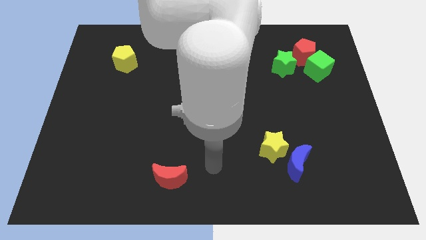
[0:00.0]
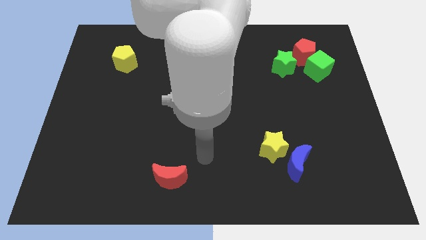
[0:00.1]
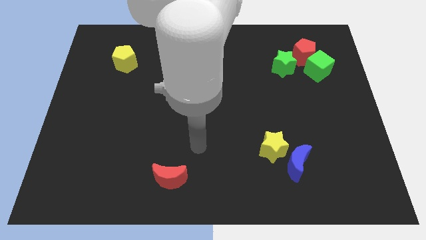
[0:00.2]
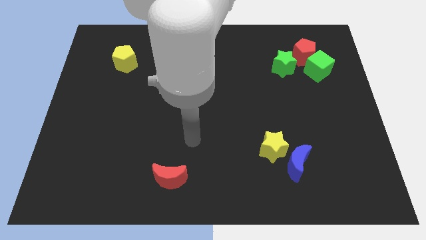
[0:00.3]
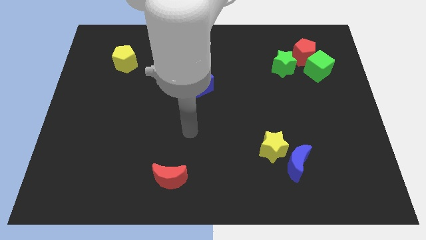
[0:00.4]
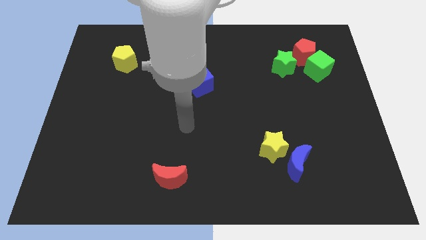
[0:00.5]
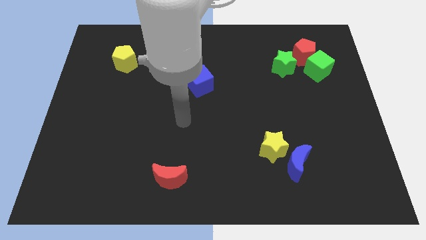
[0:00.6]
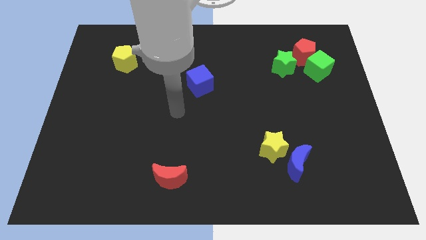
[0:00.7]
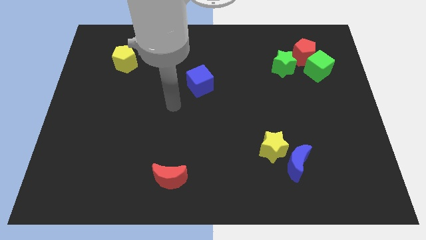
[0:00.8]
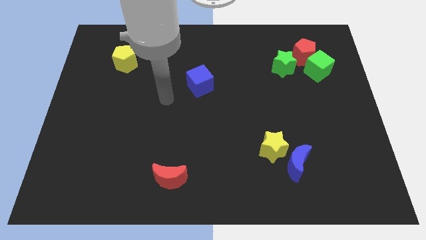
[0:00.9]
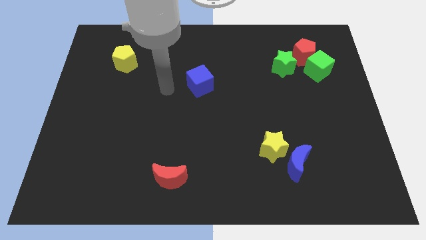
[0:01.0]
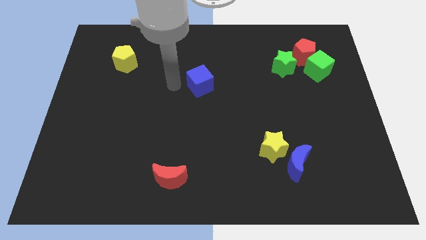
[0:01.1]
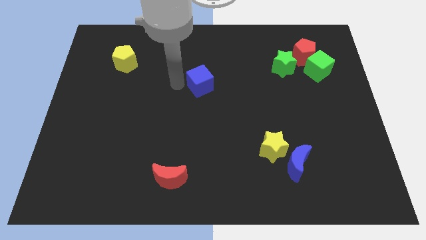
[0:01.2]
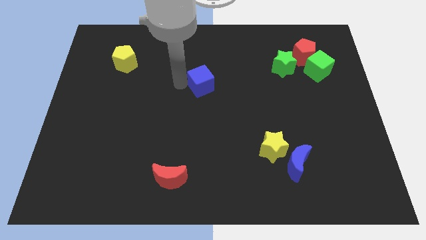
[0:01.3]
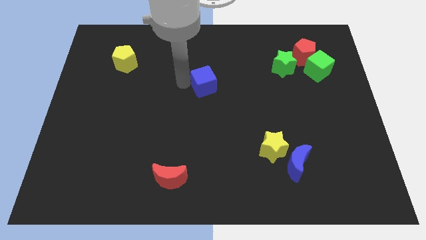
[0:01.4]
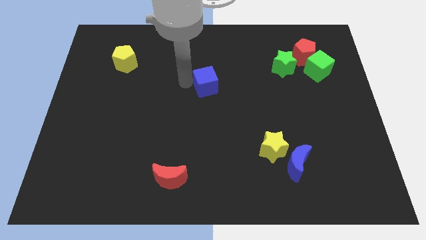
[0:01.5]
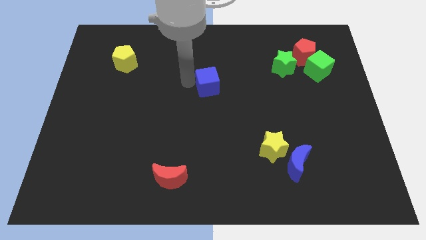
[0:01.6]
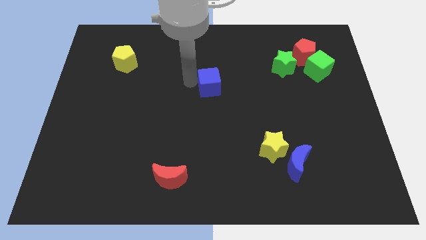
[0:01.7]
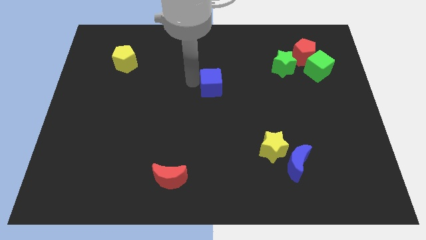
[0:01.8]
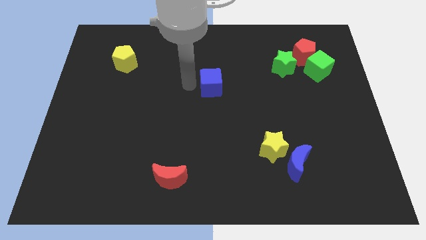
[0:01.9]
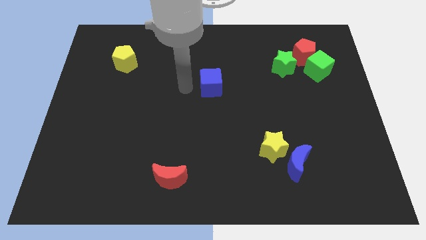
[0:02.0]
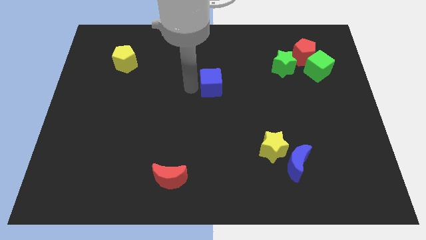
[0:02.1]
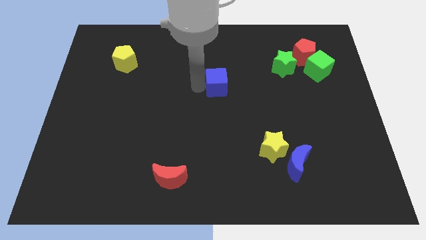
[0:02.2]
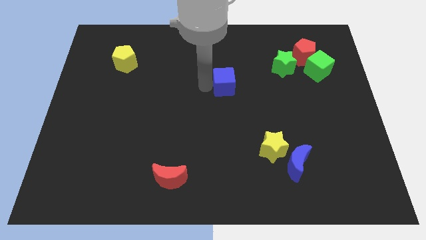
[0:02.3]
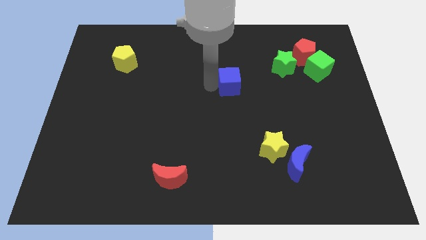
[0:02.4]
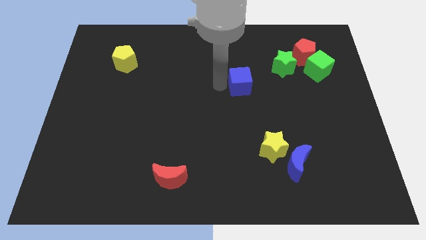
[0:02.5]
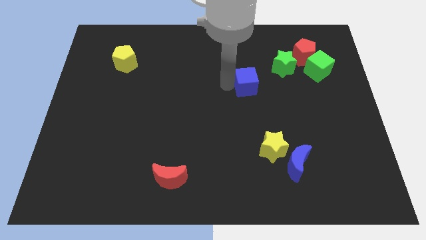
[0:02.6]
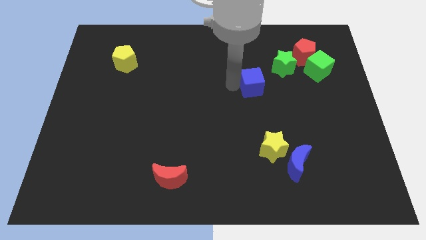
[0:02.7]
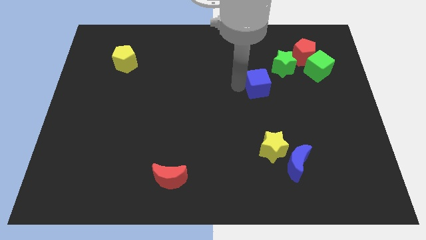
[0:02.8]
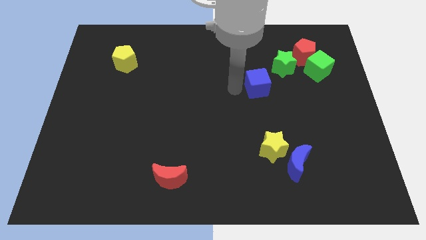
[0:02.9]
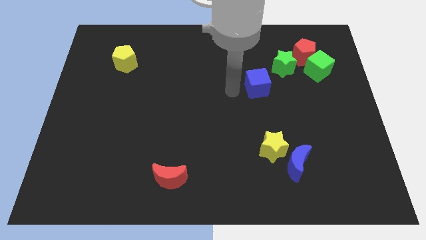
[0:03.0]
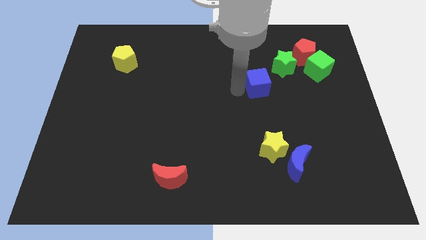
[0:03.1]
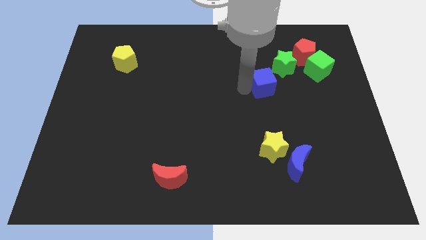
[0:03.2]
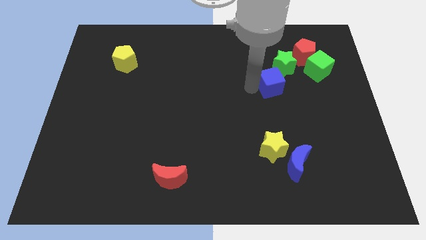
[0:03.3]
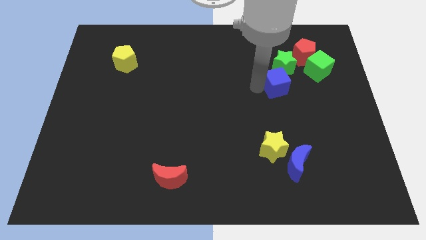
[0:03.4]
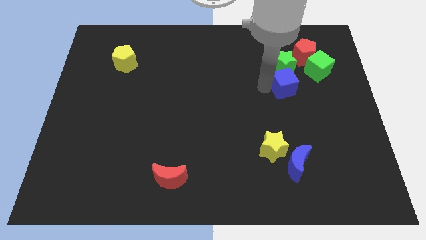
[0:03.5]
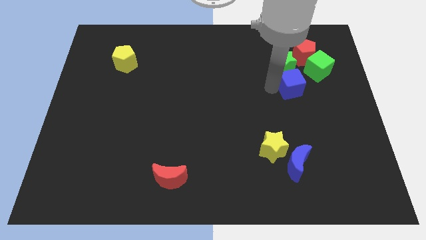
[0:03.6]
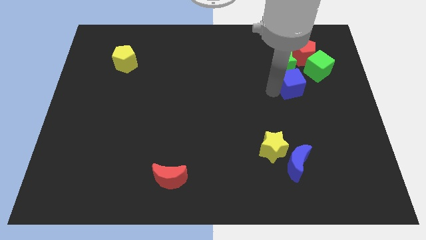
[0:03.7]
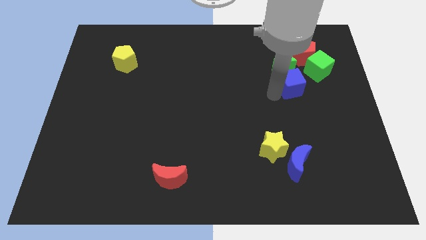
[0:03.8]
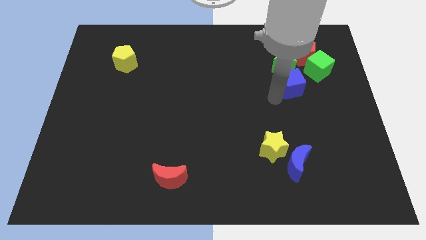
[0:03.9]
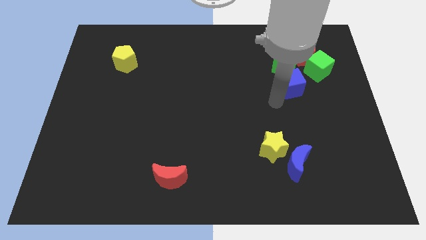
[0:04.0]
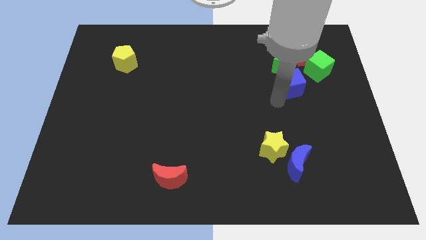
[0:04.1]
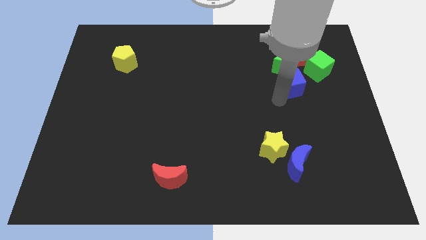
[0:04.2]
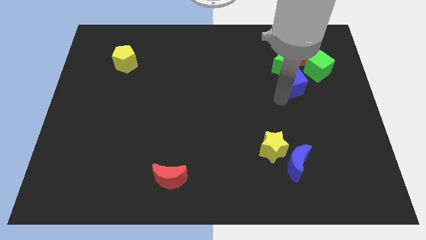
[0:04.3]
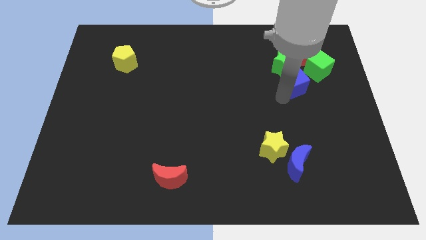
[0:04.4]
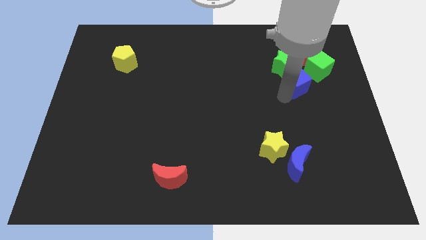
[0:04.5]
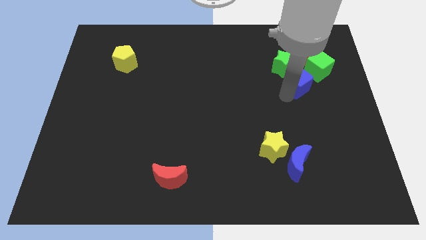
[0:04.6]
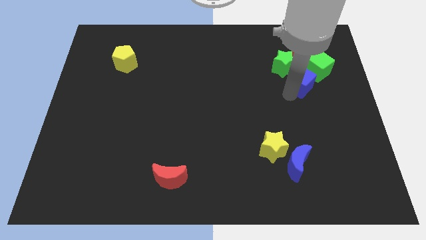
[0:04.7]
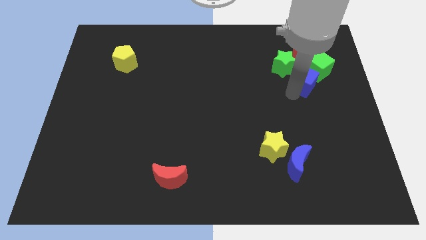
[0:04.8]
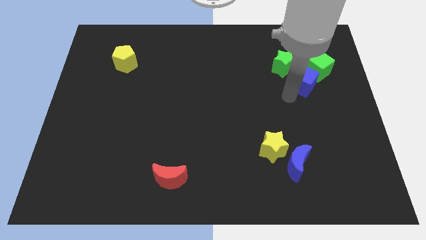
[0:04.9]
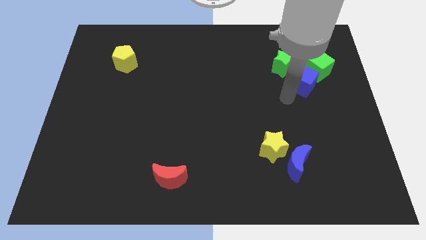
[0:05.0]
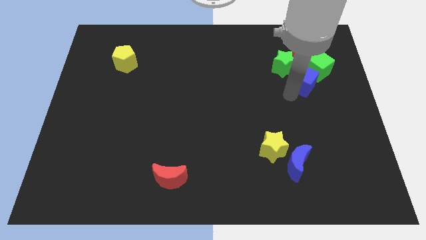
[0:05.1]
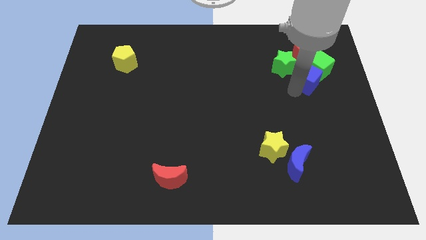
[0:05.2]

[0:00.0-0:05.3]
put the blue cube next to the green cube

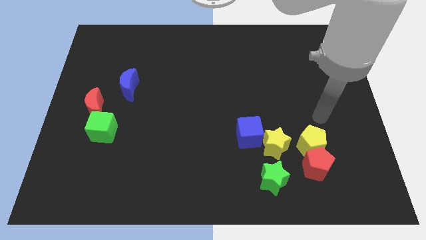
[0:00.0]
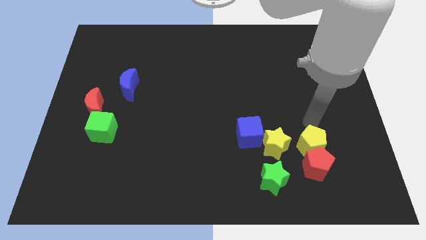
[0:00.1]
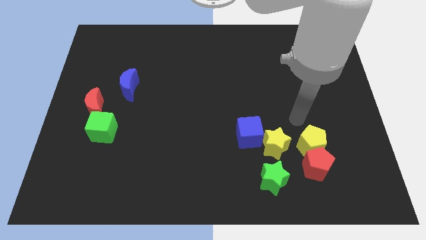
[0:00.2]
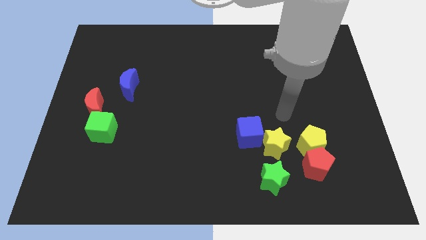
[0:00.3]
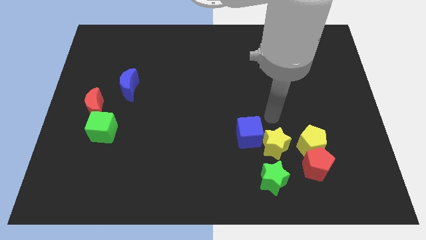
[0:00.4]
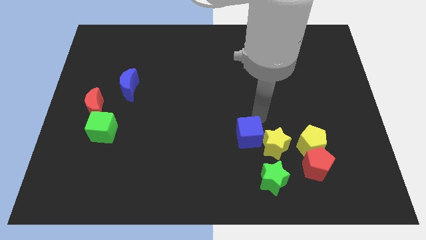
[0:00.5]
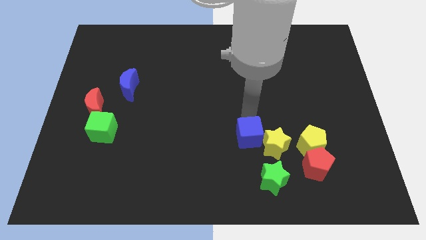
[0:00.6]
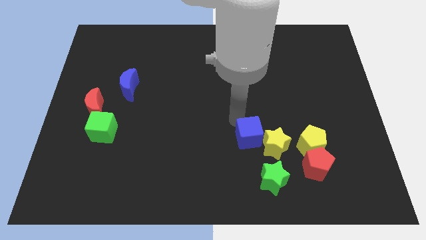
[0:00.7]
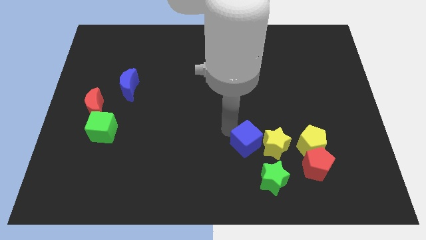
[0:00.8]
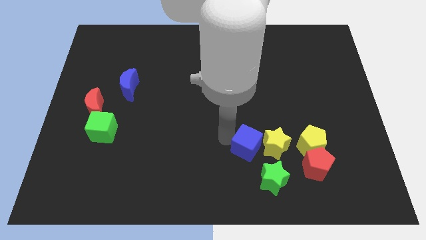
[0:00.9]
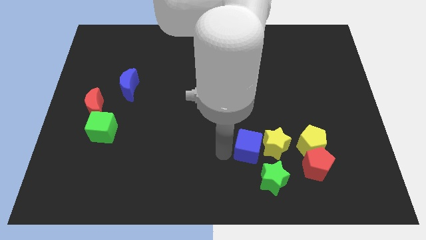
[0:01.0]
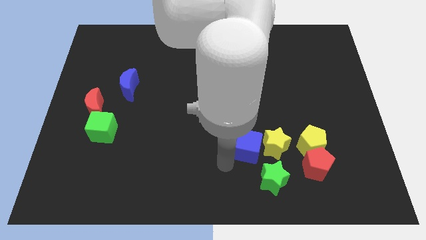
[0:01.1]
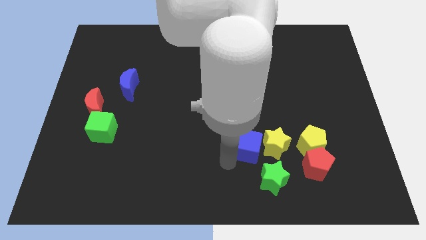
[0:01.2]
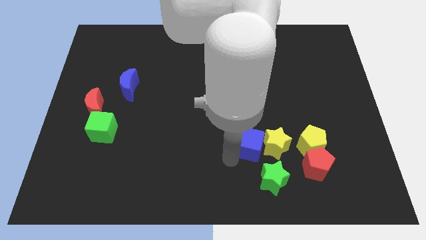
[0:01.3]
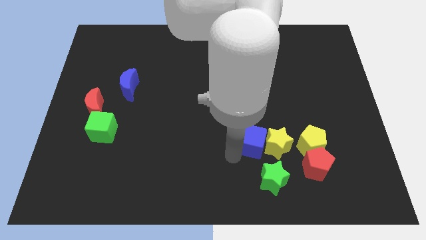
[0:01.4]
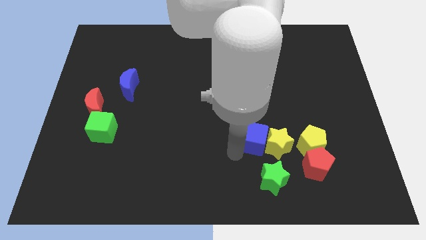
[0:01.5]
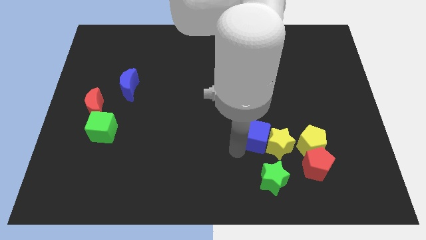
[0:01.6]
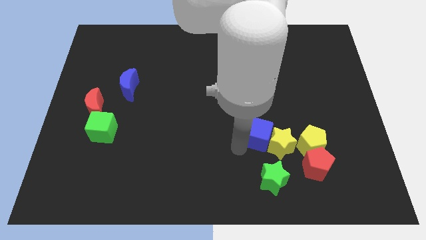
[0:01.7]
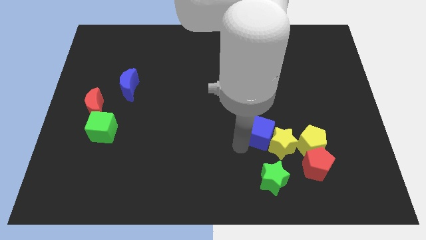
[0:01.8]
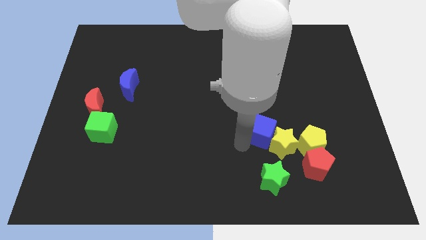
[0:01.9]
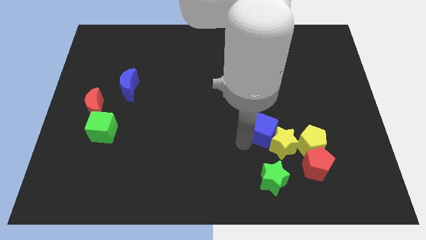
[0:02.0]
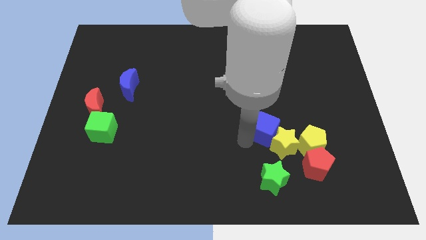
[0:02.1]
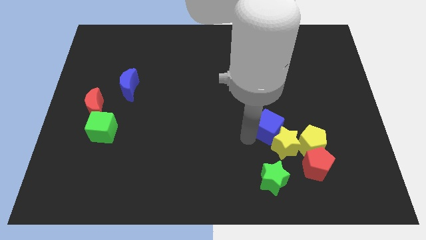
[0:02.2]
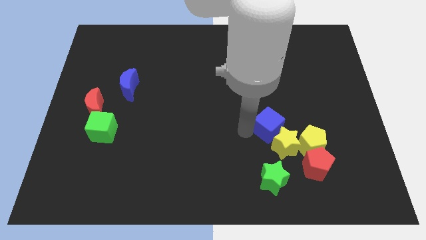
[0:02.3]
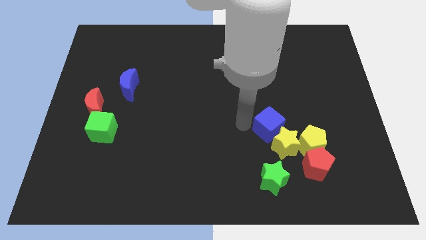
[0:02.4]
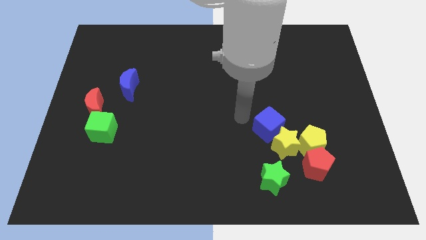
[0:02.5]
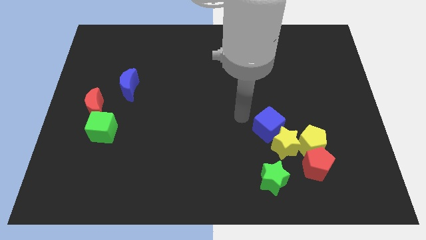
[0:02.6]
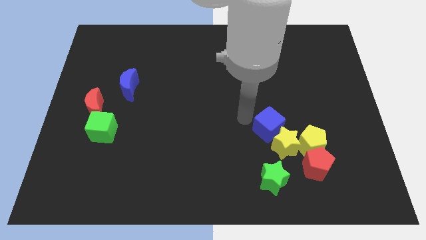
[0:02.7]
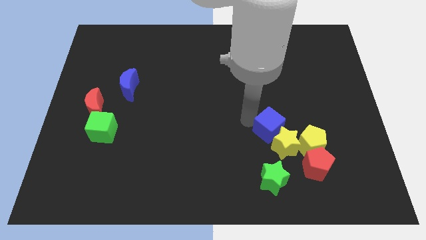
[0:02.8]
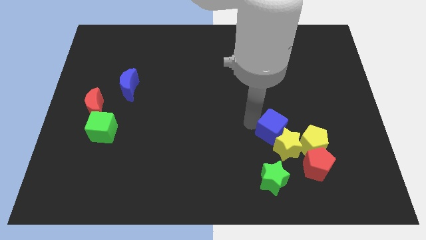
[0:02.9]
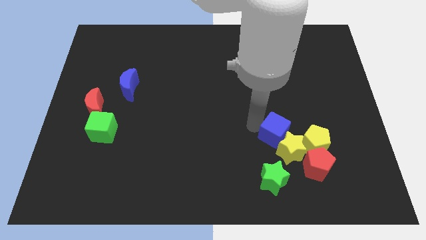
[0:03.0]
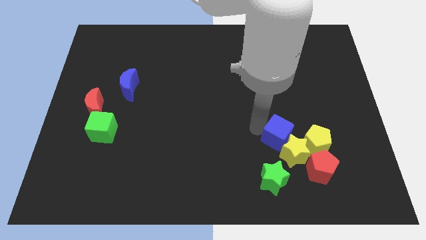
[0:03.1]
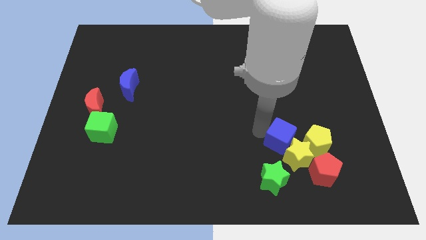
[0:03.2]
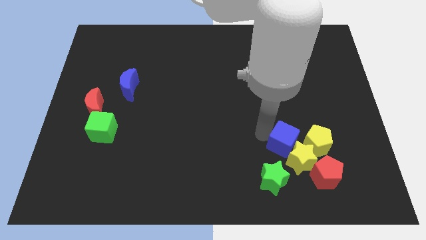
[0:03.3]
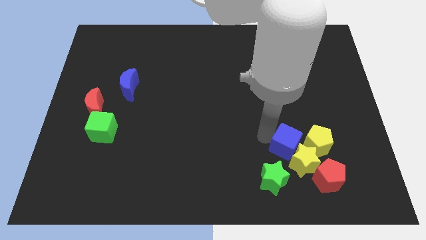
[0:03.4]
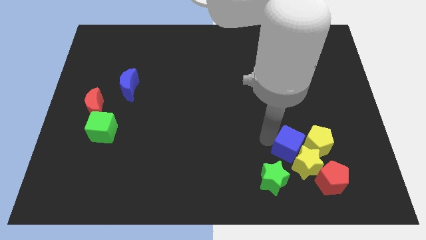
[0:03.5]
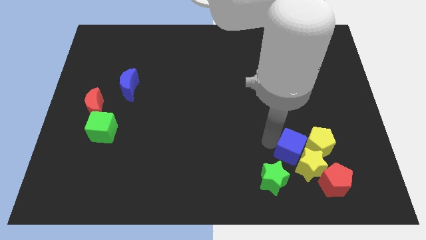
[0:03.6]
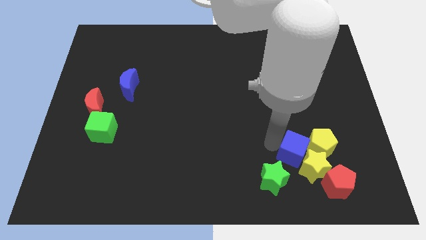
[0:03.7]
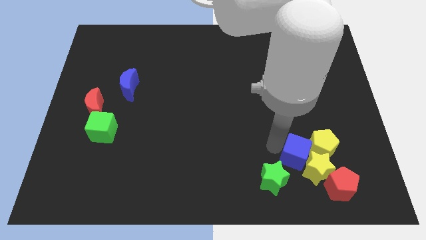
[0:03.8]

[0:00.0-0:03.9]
slide the blue cube next to the yellow pentagon
